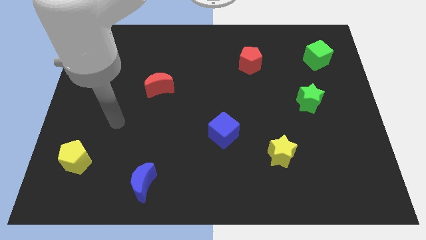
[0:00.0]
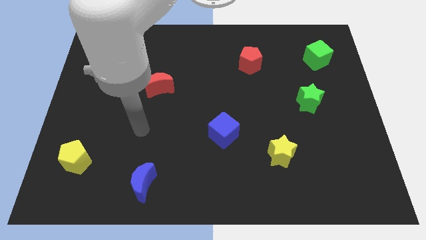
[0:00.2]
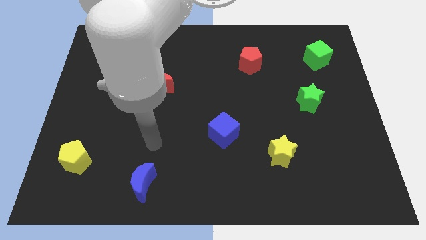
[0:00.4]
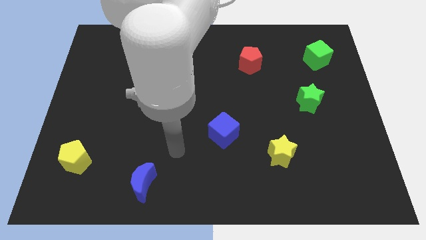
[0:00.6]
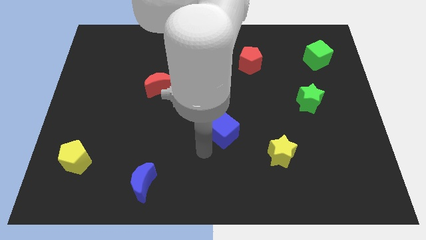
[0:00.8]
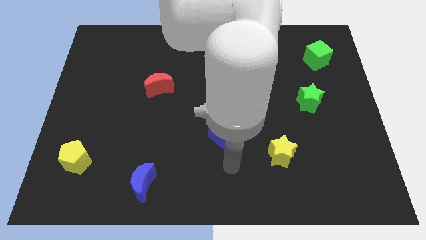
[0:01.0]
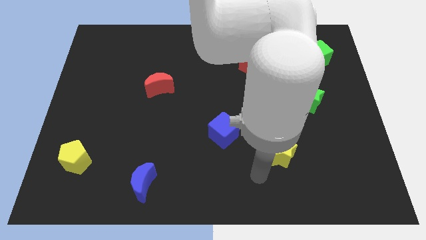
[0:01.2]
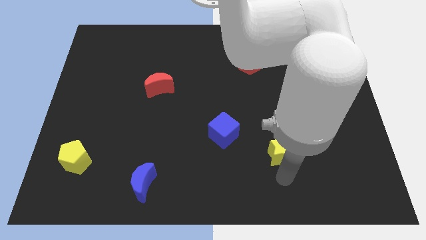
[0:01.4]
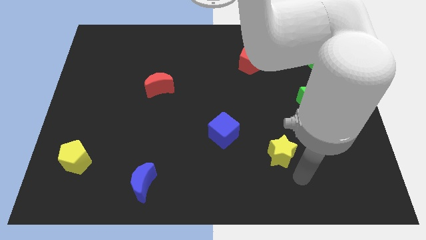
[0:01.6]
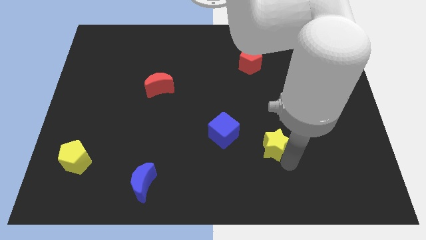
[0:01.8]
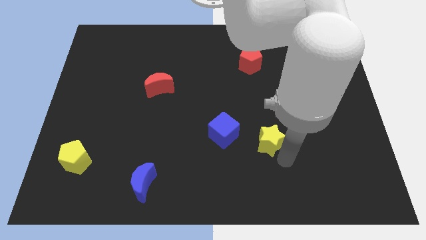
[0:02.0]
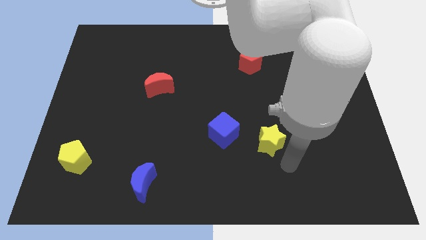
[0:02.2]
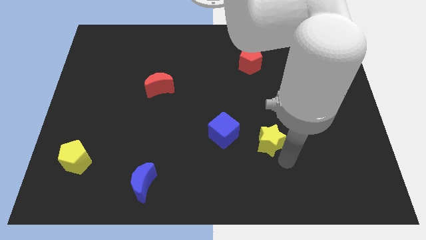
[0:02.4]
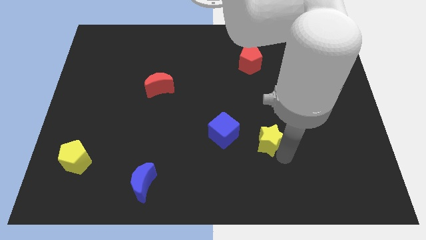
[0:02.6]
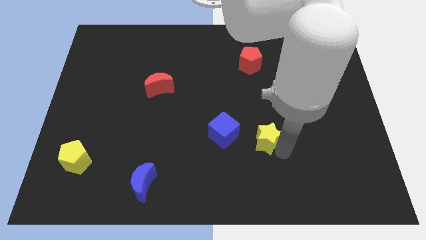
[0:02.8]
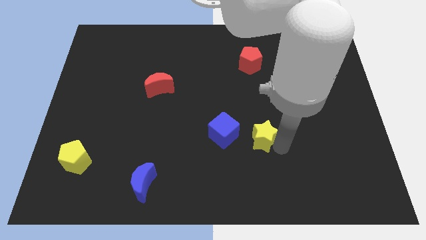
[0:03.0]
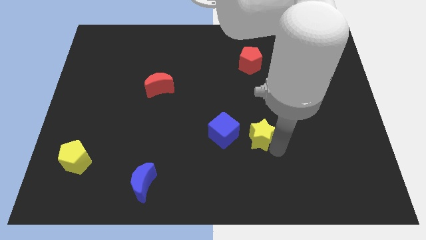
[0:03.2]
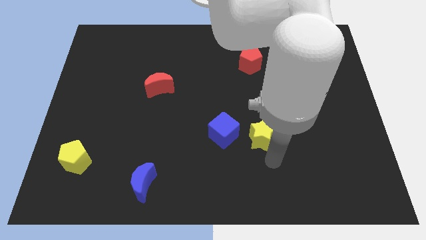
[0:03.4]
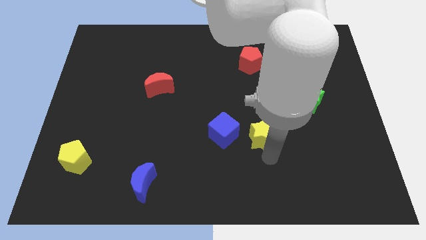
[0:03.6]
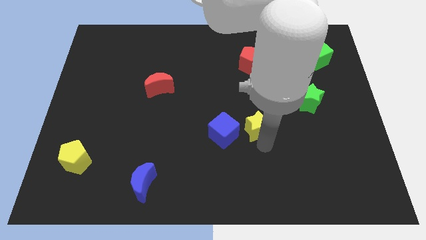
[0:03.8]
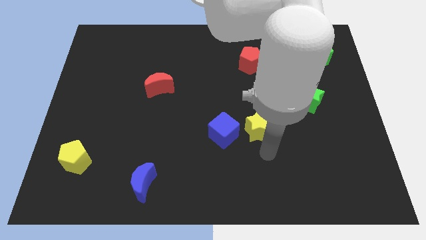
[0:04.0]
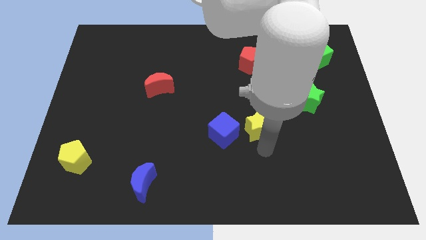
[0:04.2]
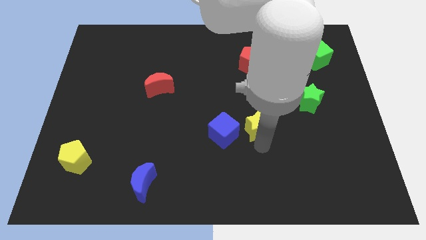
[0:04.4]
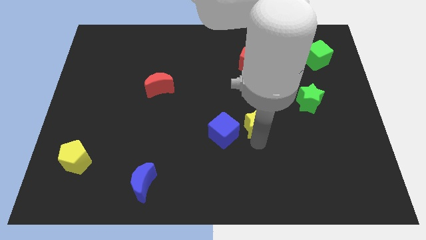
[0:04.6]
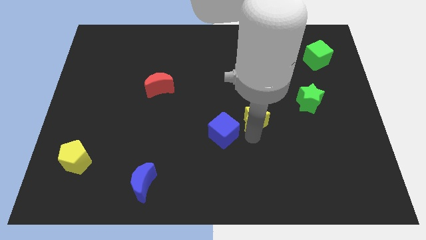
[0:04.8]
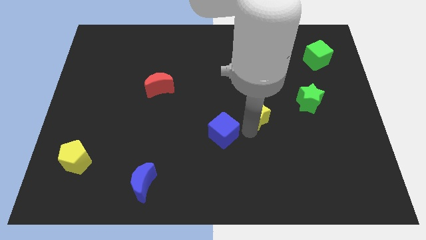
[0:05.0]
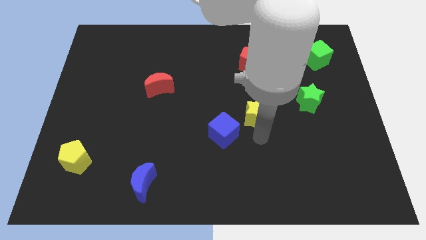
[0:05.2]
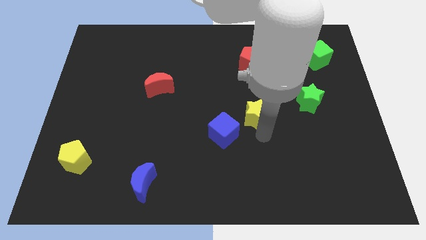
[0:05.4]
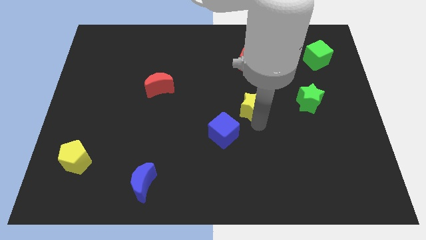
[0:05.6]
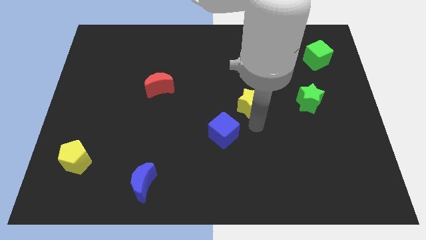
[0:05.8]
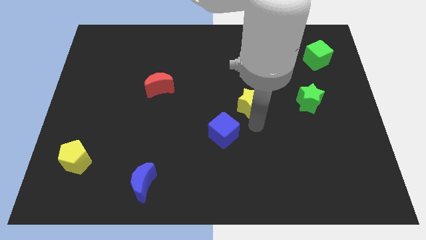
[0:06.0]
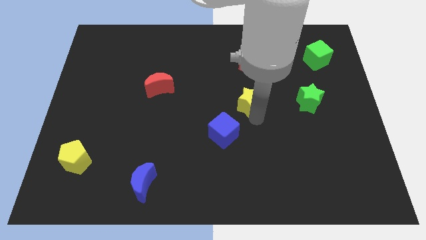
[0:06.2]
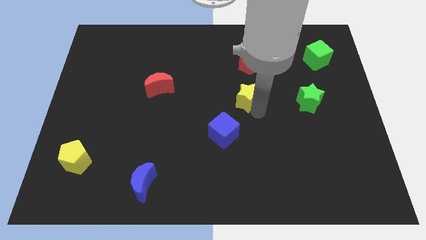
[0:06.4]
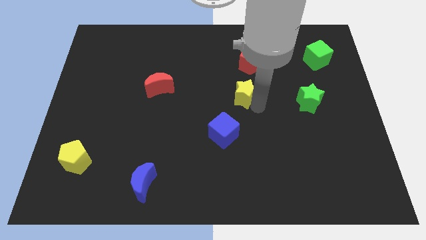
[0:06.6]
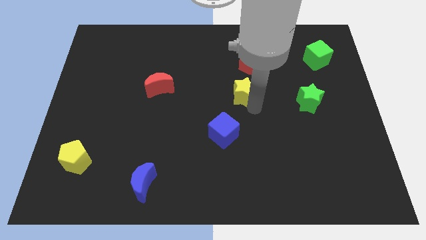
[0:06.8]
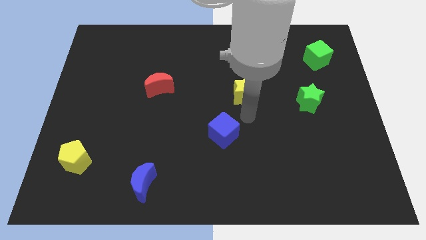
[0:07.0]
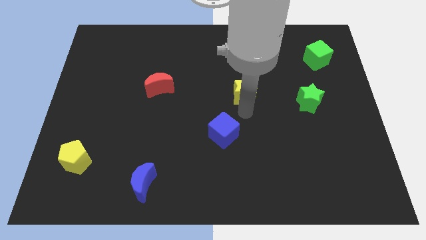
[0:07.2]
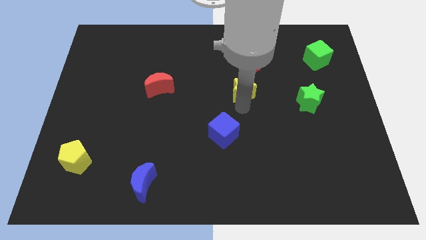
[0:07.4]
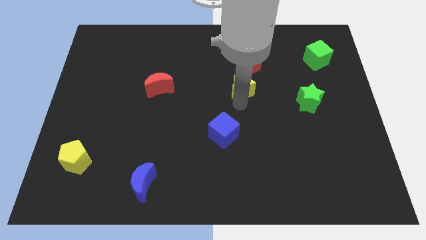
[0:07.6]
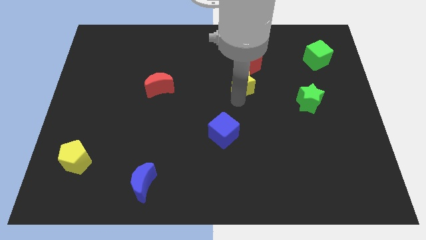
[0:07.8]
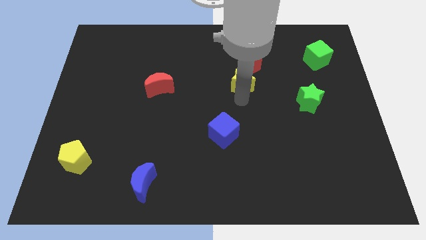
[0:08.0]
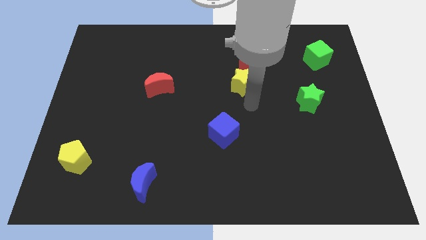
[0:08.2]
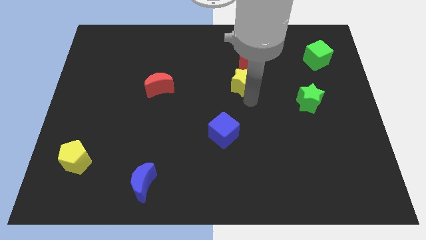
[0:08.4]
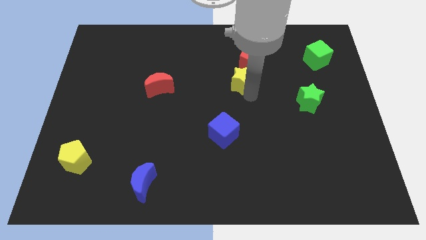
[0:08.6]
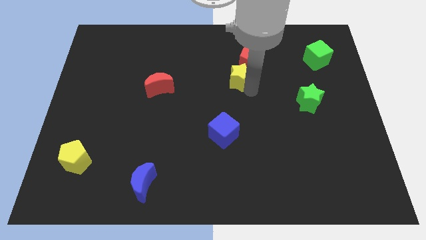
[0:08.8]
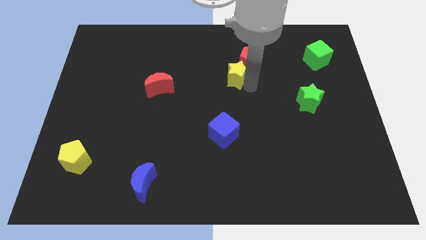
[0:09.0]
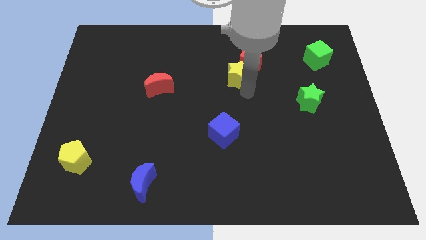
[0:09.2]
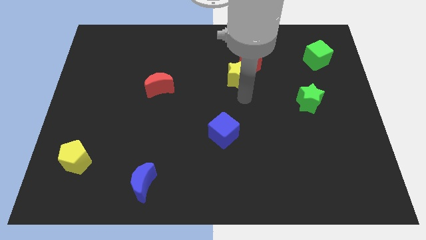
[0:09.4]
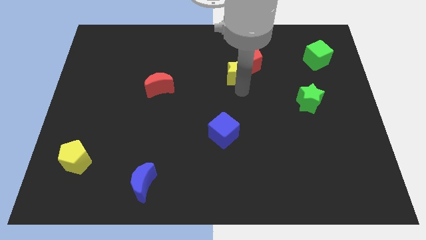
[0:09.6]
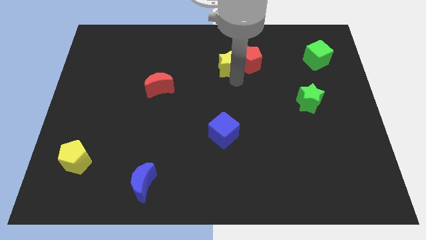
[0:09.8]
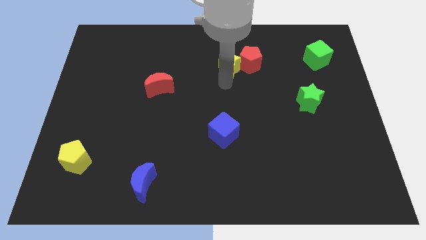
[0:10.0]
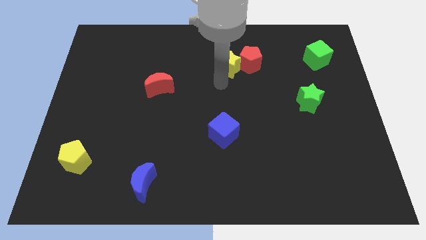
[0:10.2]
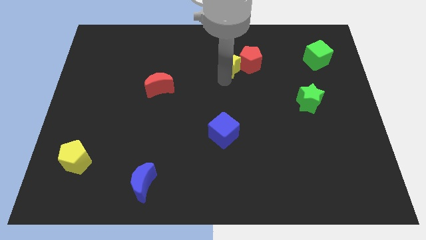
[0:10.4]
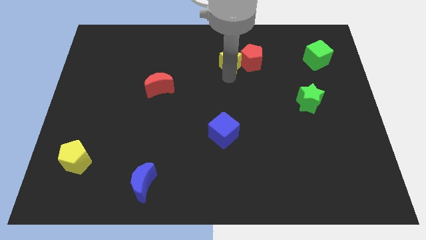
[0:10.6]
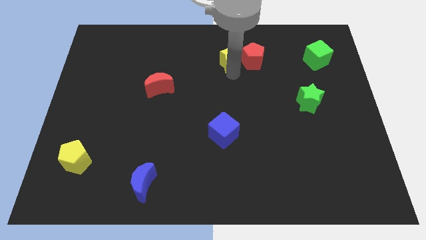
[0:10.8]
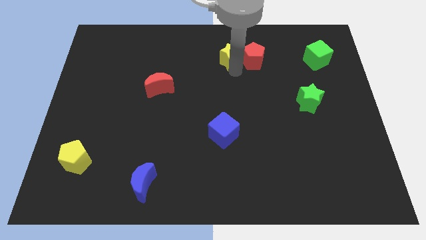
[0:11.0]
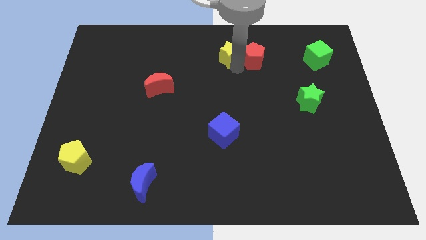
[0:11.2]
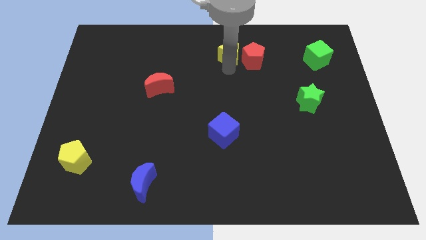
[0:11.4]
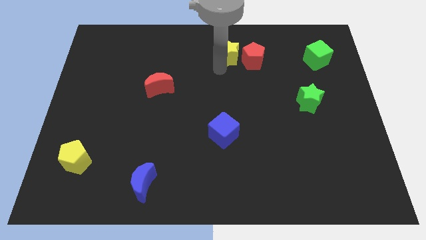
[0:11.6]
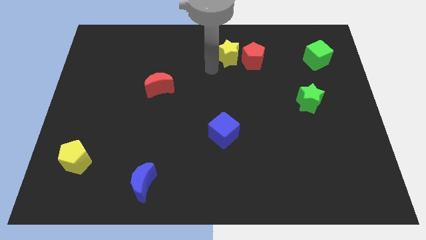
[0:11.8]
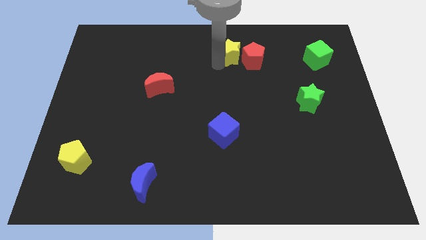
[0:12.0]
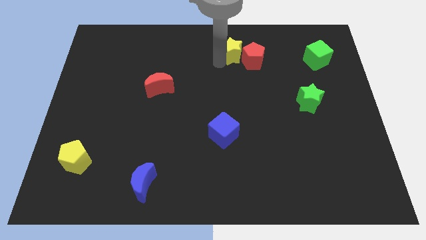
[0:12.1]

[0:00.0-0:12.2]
move the yellow star to the top side
